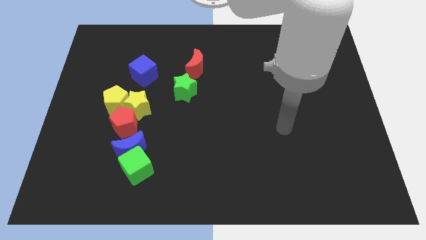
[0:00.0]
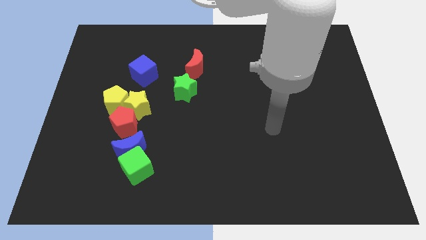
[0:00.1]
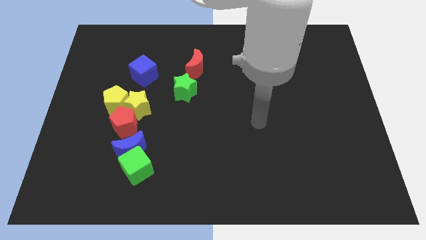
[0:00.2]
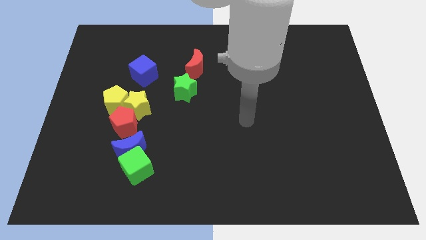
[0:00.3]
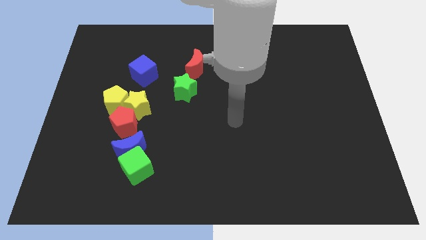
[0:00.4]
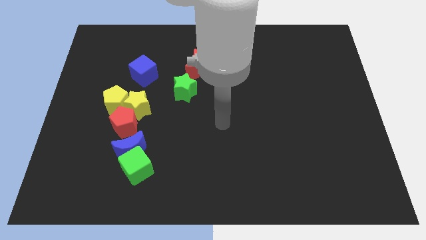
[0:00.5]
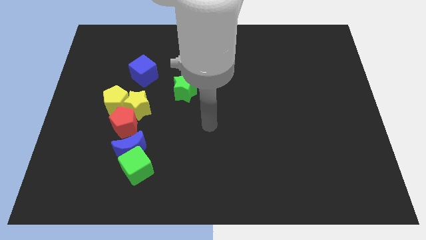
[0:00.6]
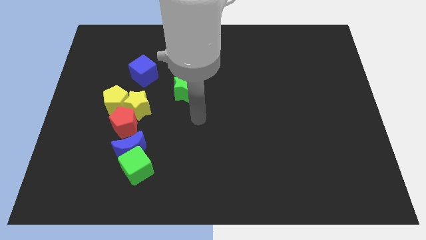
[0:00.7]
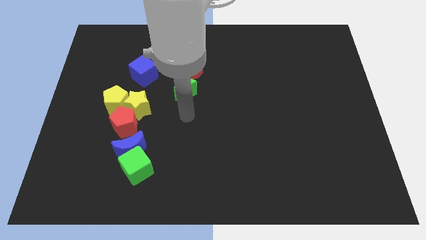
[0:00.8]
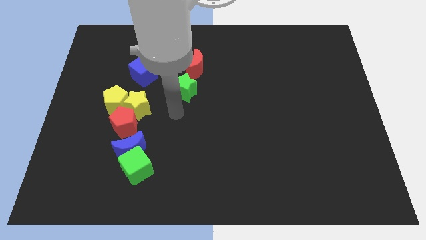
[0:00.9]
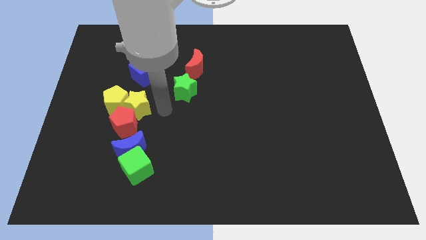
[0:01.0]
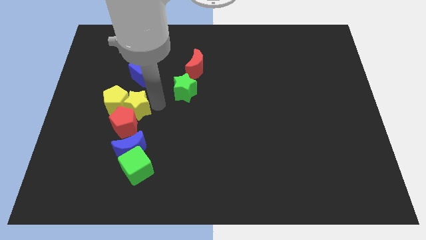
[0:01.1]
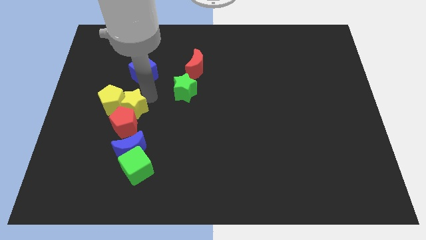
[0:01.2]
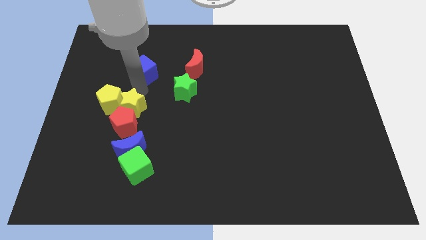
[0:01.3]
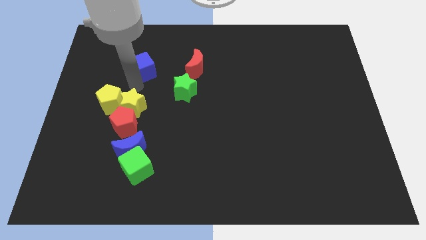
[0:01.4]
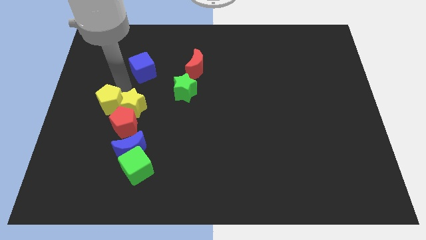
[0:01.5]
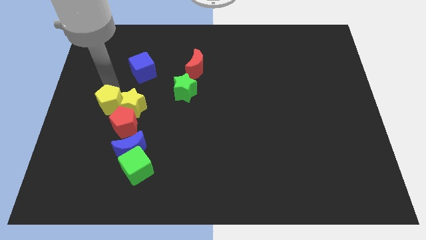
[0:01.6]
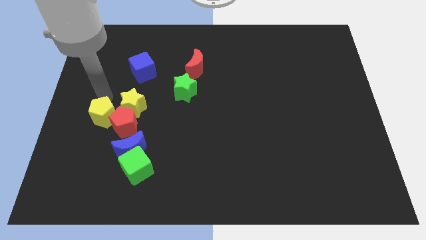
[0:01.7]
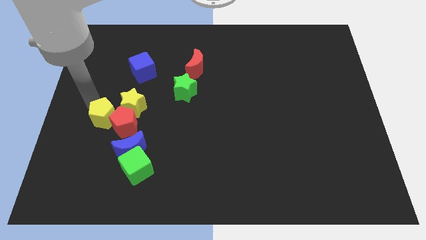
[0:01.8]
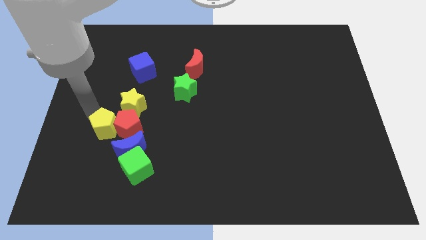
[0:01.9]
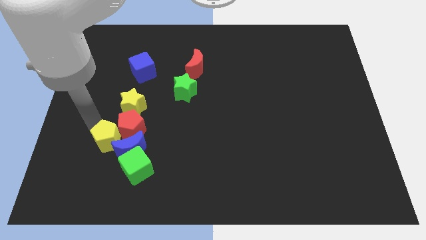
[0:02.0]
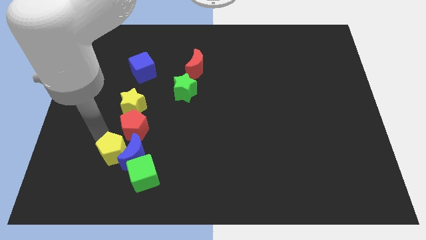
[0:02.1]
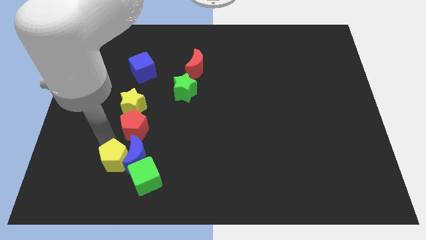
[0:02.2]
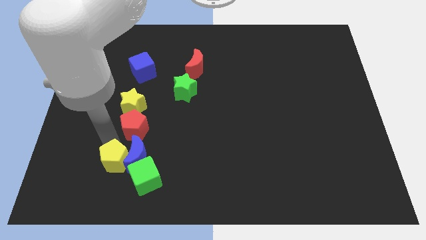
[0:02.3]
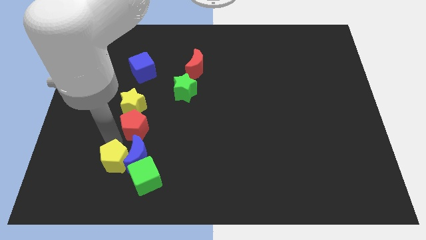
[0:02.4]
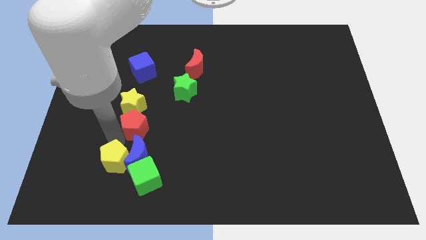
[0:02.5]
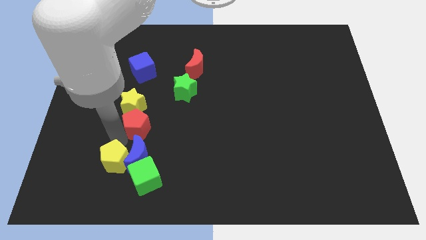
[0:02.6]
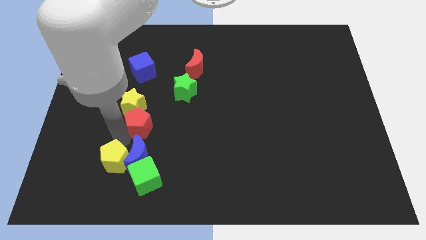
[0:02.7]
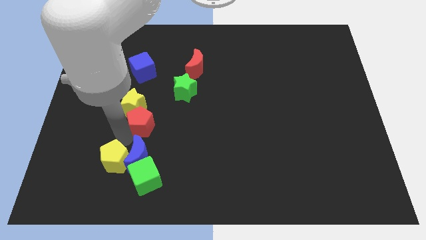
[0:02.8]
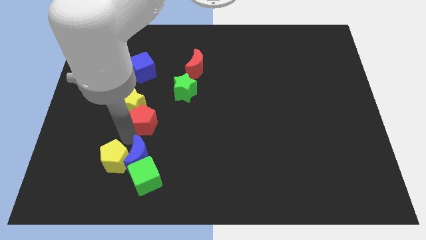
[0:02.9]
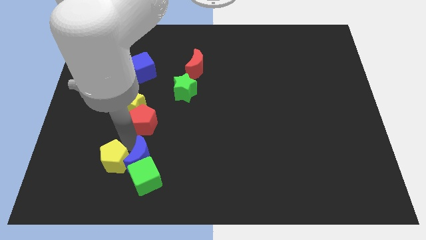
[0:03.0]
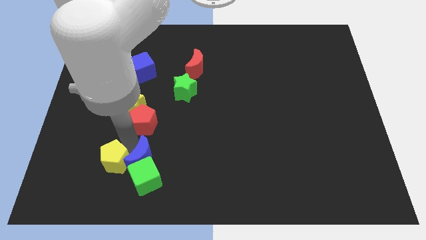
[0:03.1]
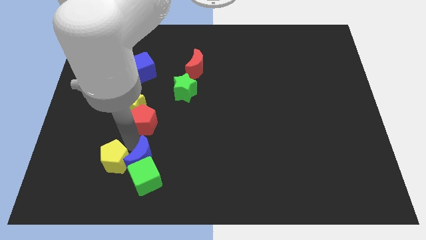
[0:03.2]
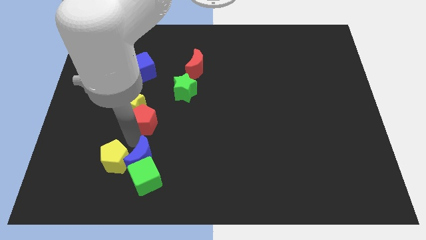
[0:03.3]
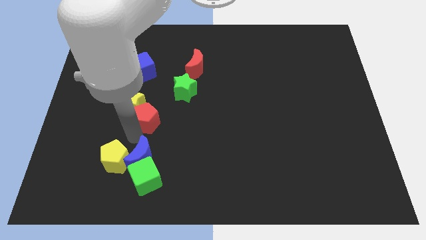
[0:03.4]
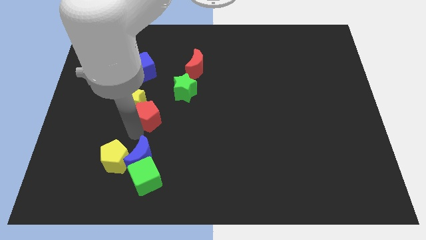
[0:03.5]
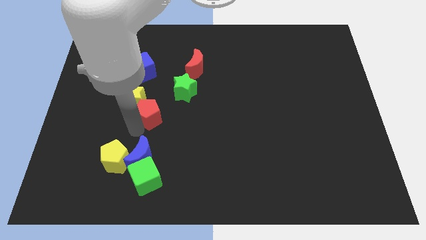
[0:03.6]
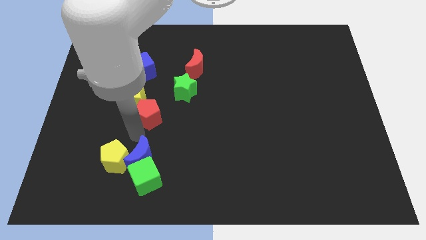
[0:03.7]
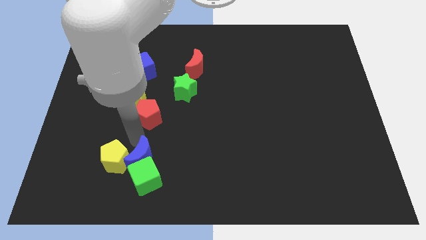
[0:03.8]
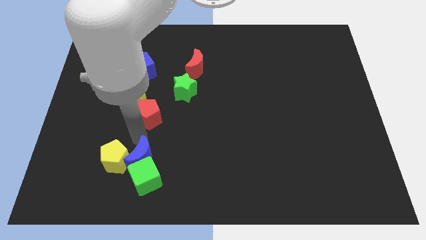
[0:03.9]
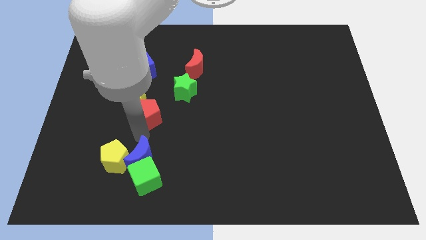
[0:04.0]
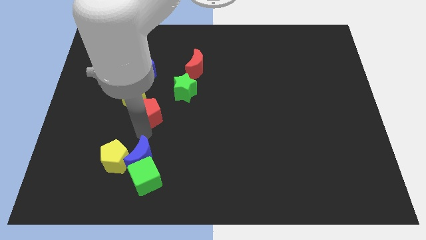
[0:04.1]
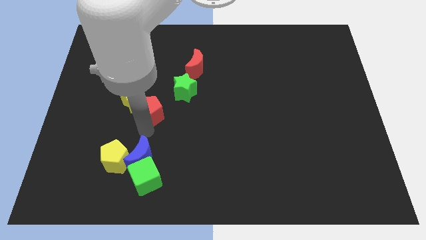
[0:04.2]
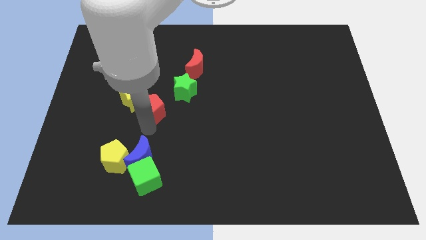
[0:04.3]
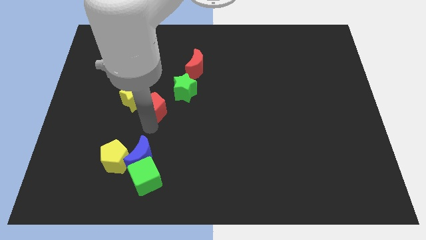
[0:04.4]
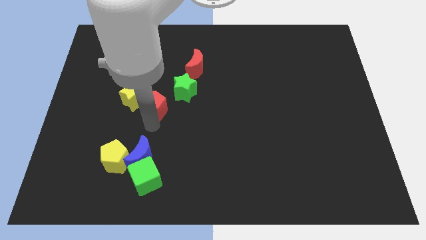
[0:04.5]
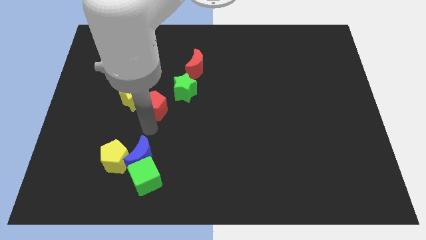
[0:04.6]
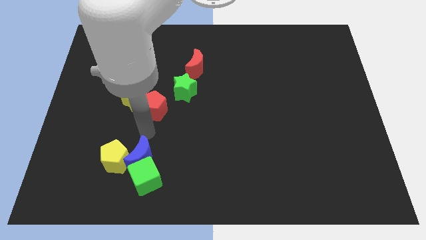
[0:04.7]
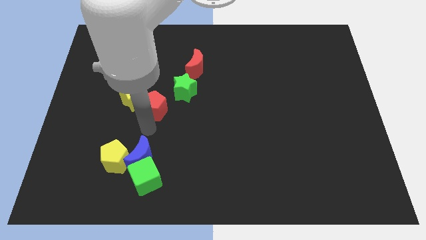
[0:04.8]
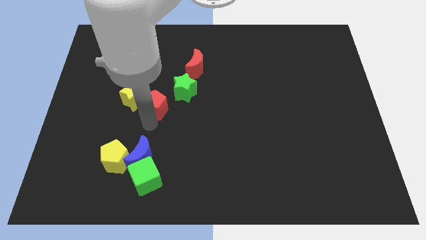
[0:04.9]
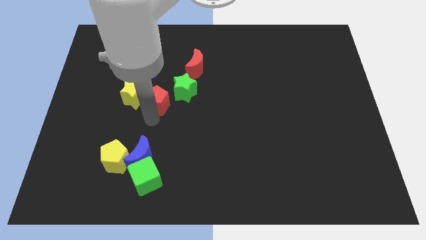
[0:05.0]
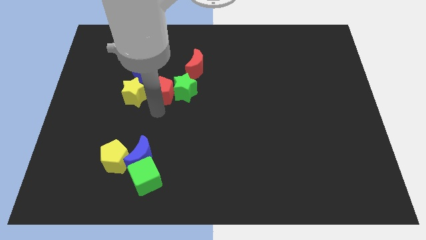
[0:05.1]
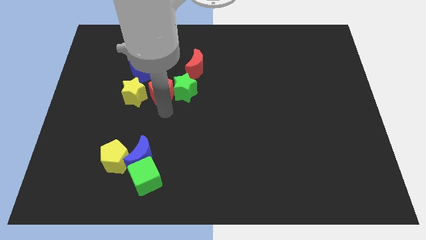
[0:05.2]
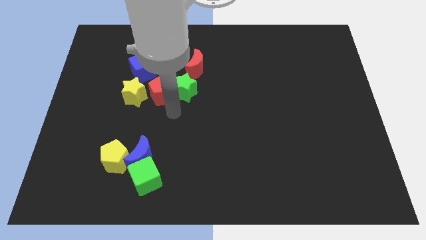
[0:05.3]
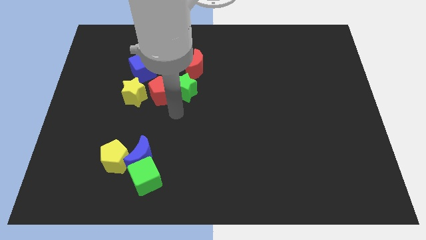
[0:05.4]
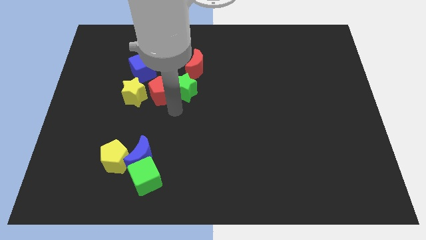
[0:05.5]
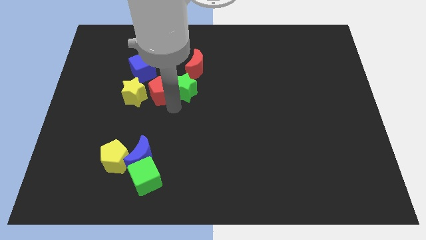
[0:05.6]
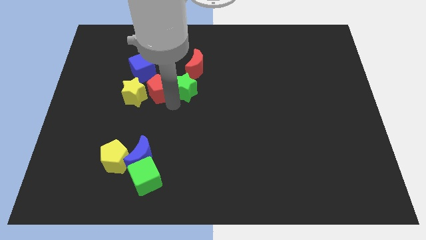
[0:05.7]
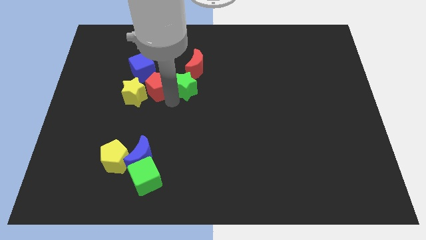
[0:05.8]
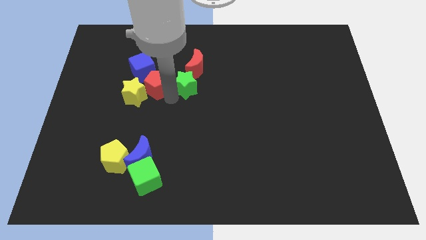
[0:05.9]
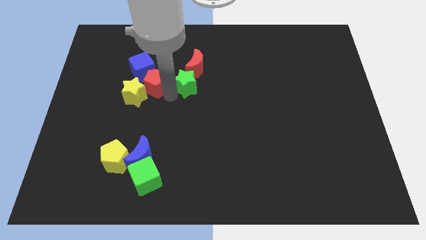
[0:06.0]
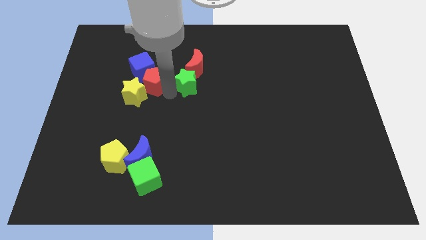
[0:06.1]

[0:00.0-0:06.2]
move the red pentagon towards the blue cube

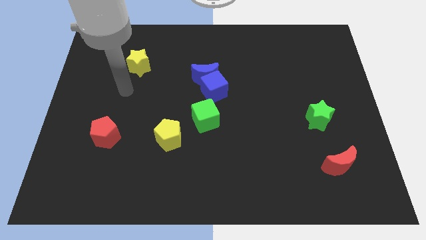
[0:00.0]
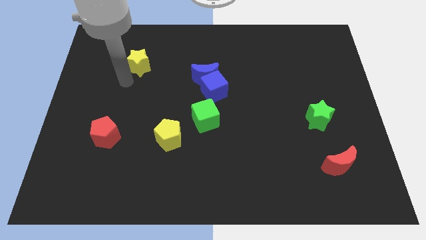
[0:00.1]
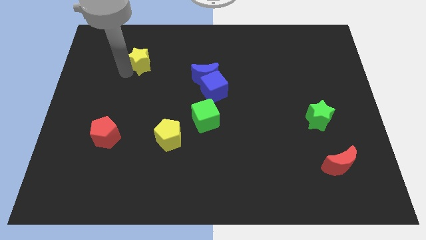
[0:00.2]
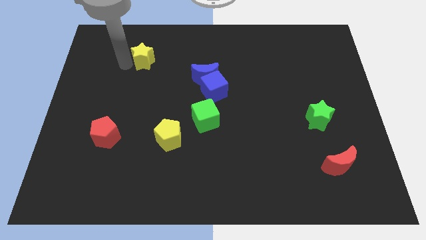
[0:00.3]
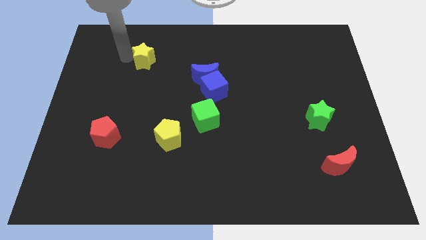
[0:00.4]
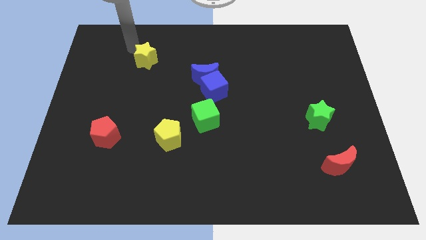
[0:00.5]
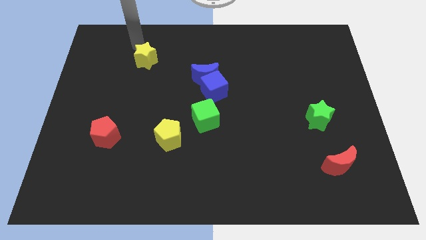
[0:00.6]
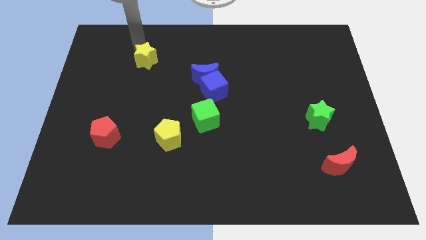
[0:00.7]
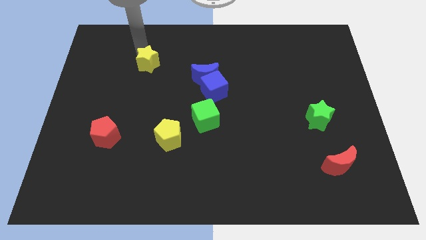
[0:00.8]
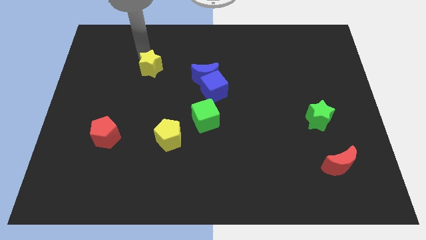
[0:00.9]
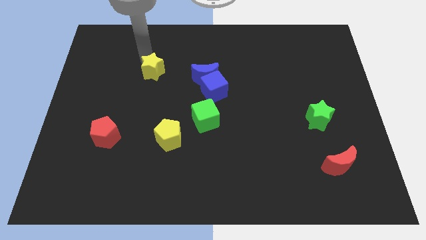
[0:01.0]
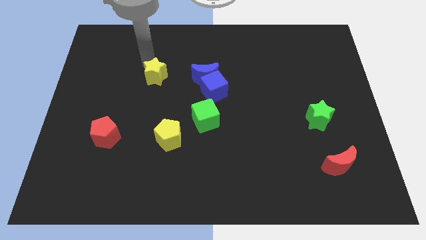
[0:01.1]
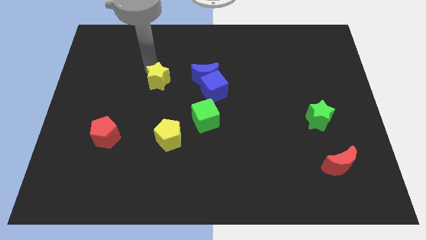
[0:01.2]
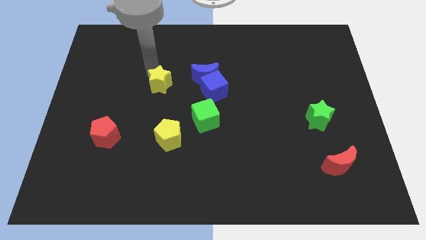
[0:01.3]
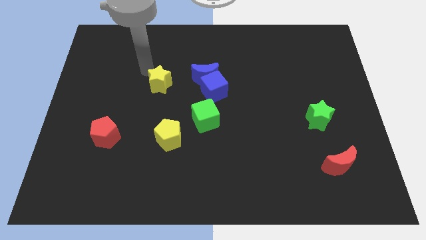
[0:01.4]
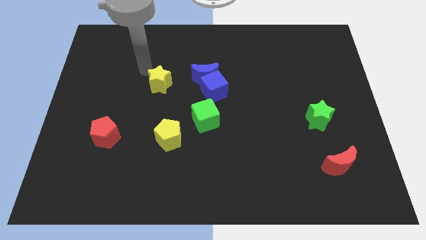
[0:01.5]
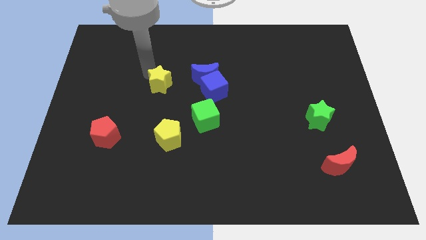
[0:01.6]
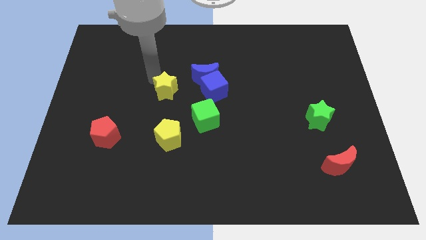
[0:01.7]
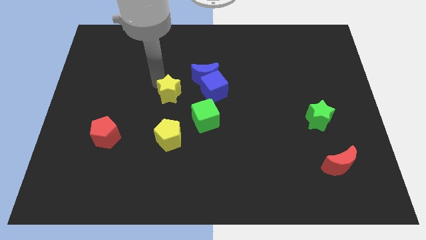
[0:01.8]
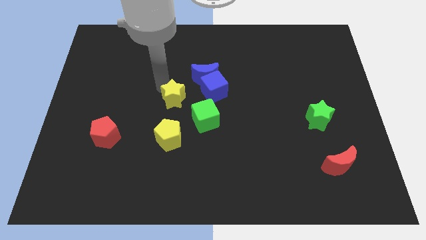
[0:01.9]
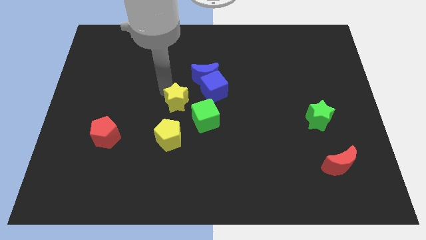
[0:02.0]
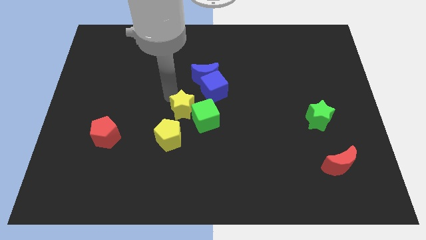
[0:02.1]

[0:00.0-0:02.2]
push the yellow star towards the green cube
